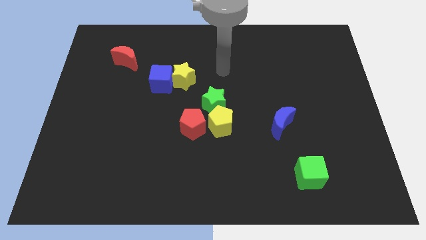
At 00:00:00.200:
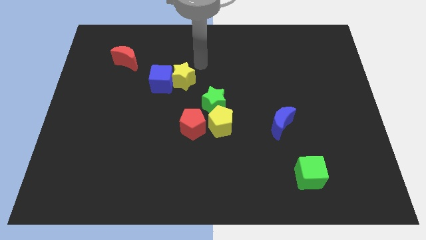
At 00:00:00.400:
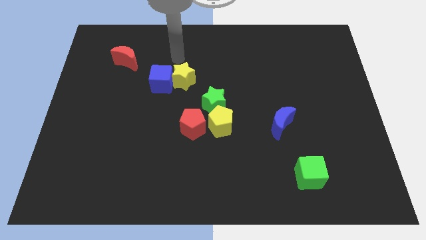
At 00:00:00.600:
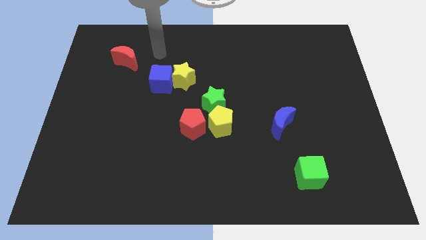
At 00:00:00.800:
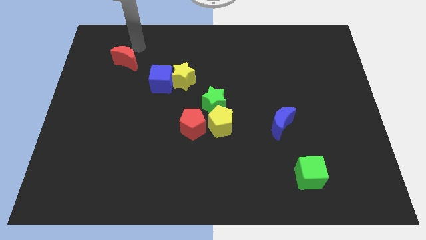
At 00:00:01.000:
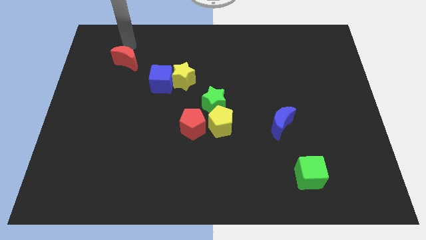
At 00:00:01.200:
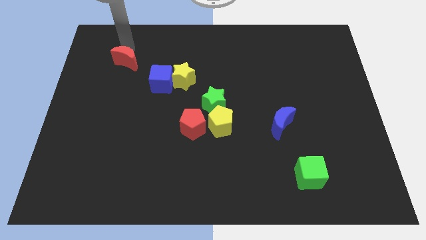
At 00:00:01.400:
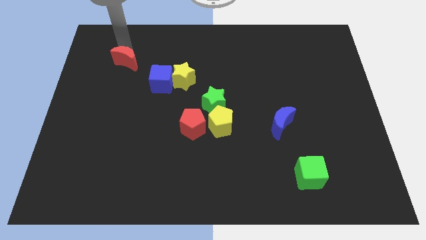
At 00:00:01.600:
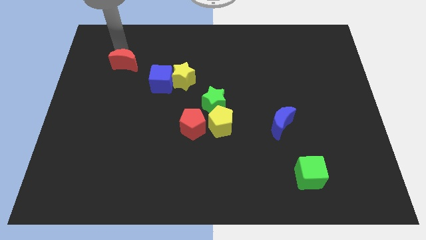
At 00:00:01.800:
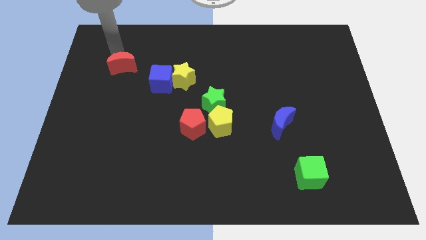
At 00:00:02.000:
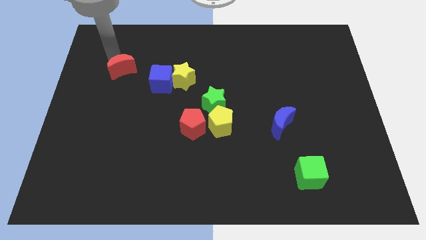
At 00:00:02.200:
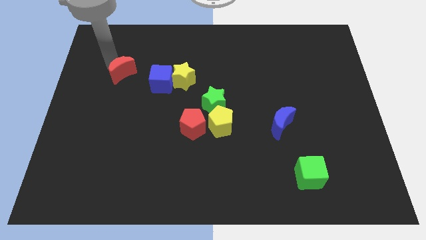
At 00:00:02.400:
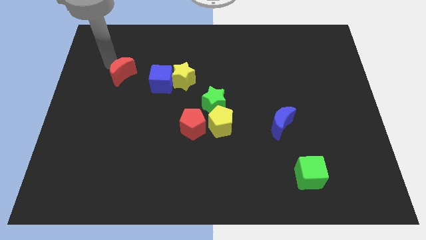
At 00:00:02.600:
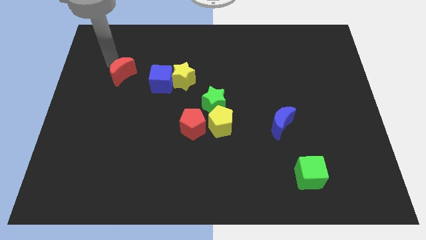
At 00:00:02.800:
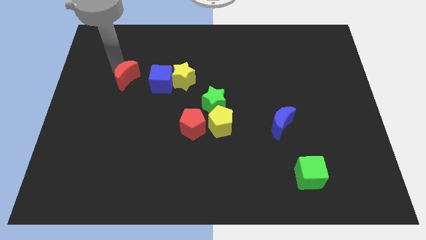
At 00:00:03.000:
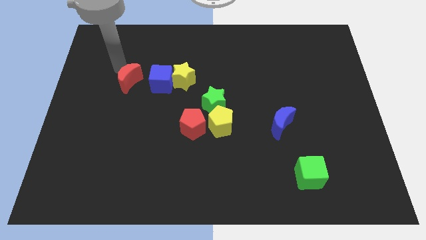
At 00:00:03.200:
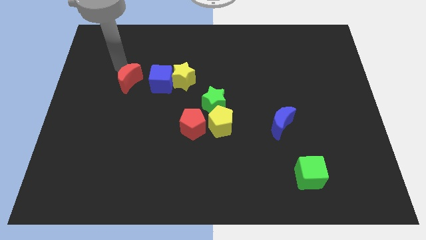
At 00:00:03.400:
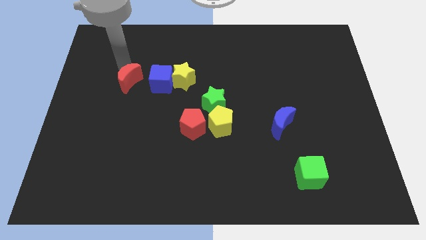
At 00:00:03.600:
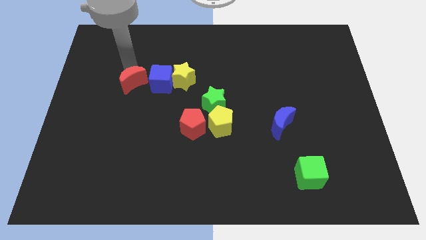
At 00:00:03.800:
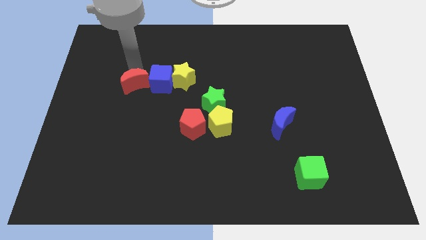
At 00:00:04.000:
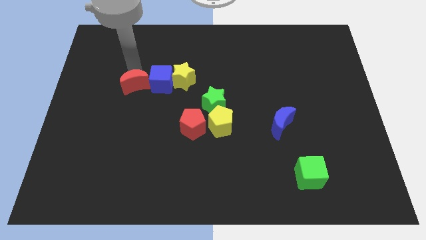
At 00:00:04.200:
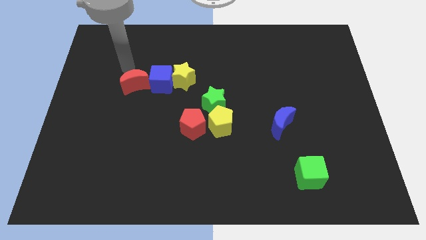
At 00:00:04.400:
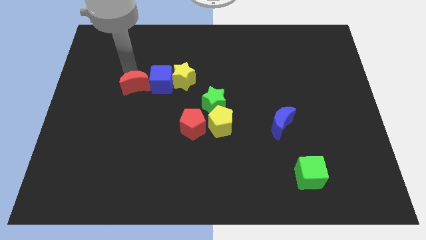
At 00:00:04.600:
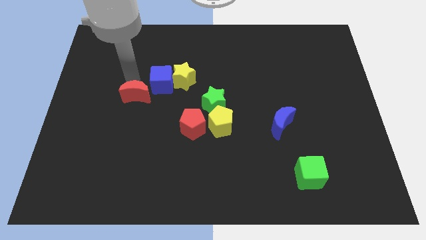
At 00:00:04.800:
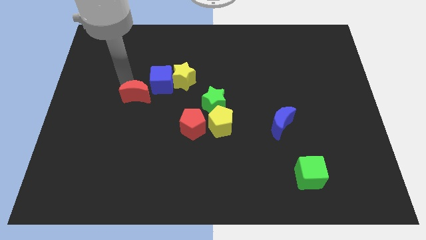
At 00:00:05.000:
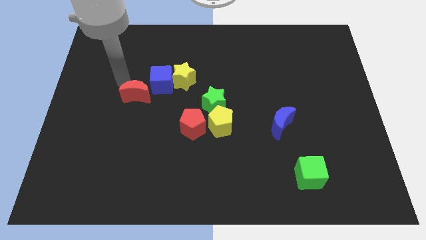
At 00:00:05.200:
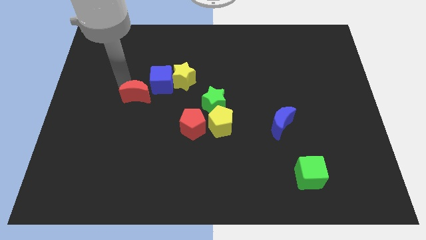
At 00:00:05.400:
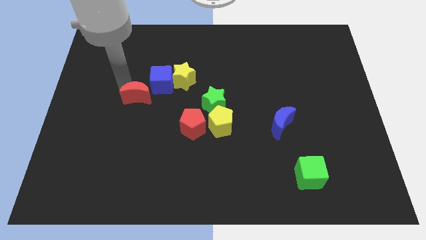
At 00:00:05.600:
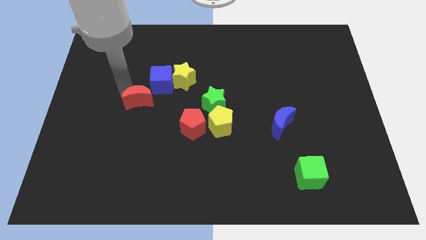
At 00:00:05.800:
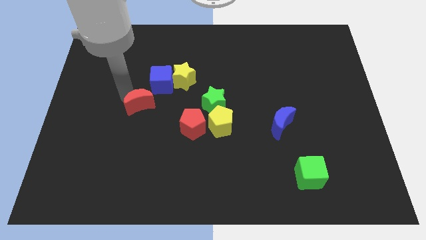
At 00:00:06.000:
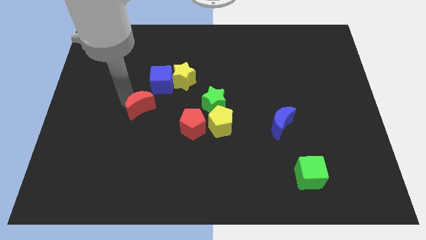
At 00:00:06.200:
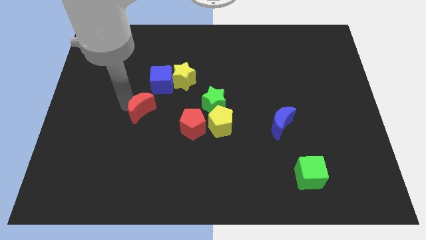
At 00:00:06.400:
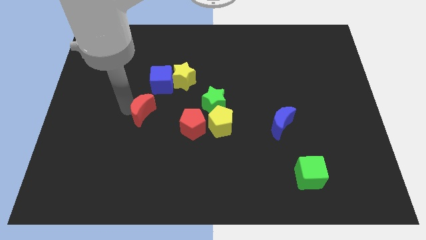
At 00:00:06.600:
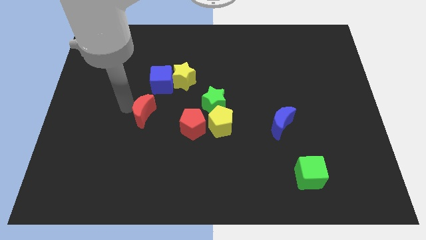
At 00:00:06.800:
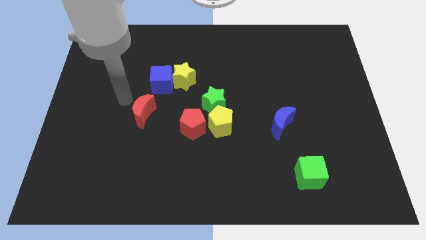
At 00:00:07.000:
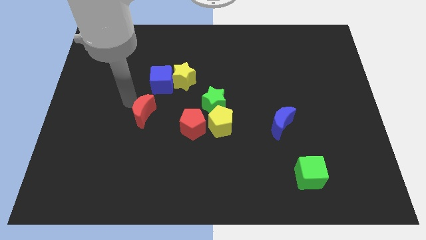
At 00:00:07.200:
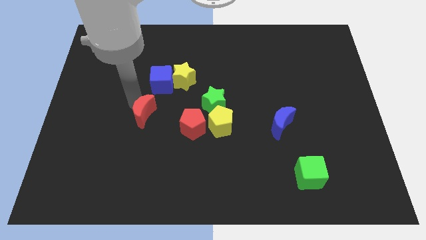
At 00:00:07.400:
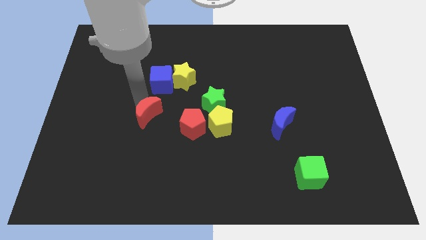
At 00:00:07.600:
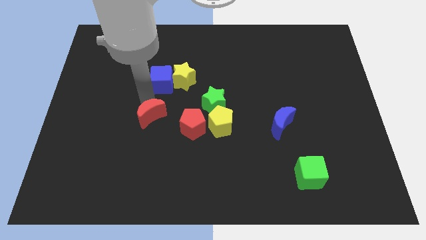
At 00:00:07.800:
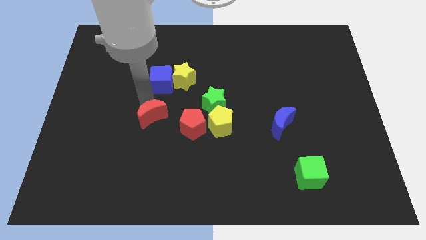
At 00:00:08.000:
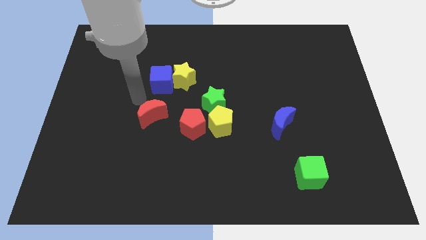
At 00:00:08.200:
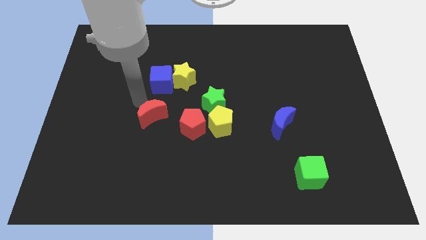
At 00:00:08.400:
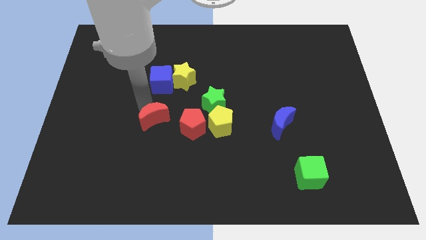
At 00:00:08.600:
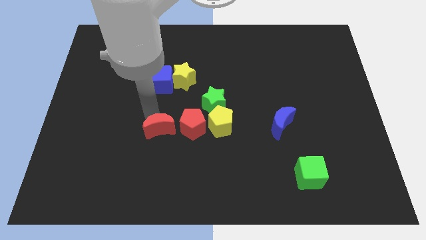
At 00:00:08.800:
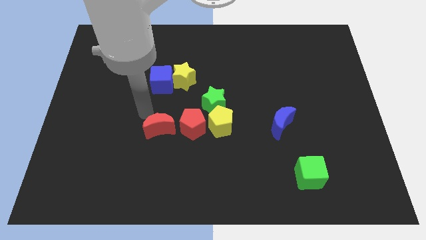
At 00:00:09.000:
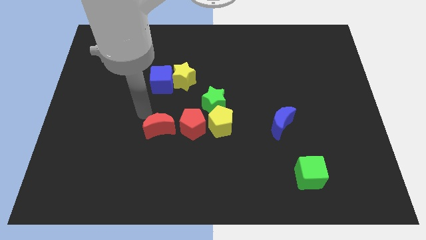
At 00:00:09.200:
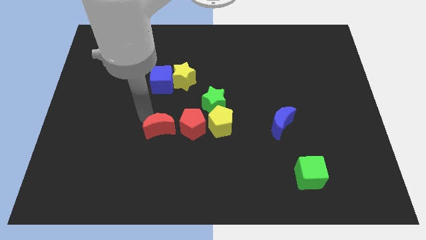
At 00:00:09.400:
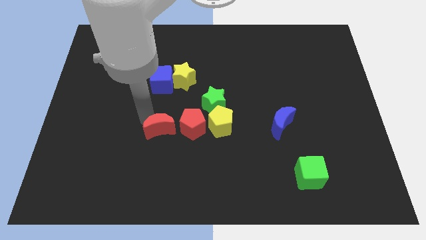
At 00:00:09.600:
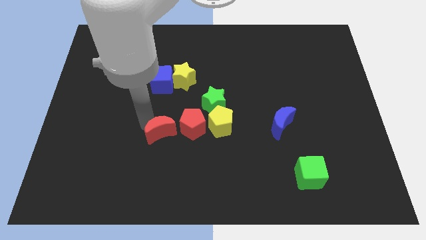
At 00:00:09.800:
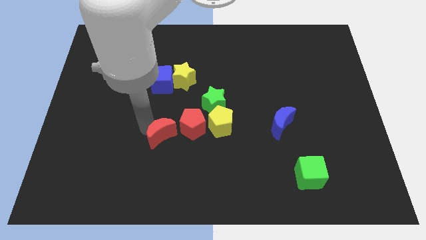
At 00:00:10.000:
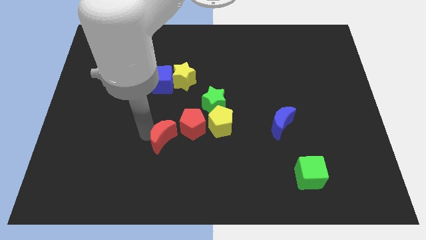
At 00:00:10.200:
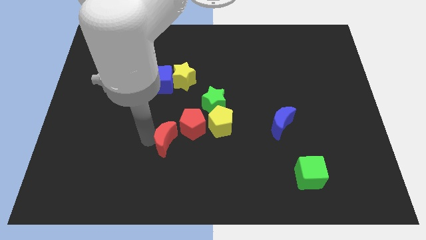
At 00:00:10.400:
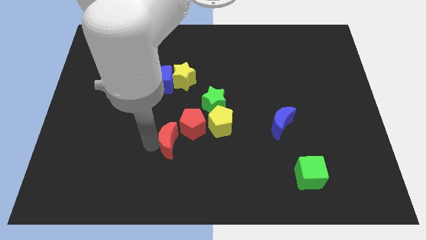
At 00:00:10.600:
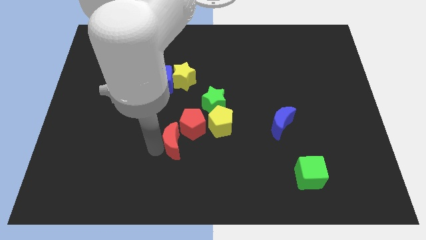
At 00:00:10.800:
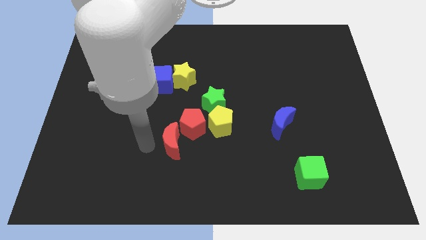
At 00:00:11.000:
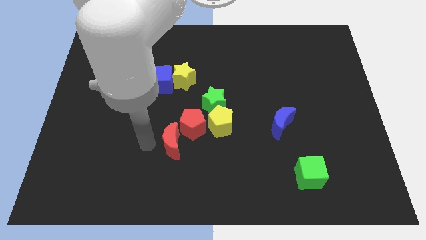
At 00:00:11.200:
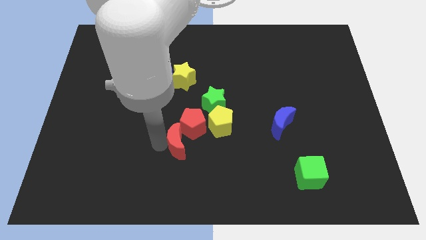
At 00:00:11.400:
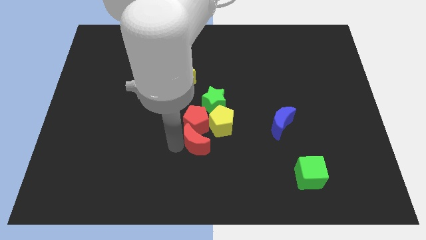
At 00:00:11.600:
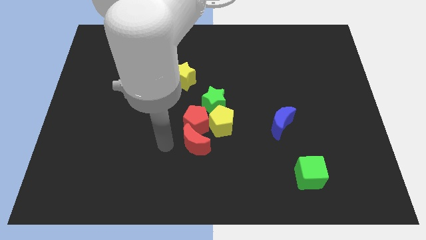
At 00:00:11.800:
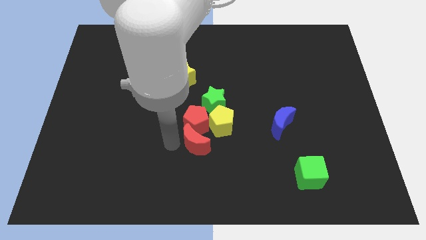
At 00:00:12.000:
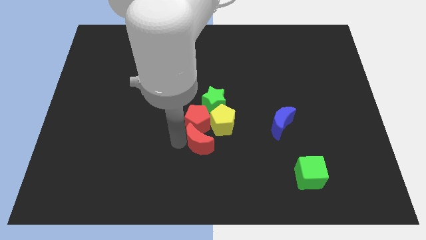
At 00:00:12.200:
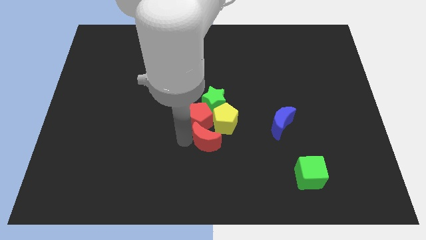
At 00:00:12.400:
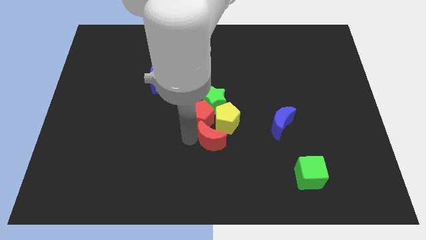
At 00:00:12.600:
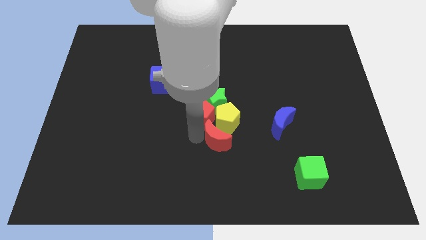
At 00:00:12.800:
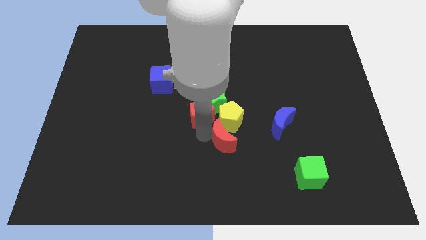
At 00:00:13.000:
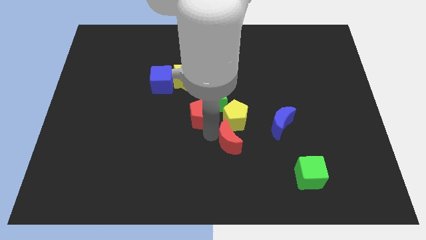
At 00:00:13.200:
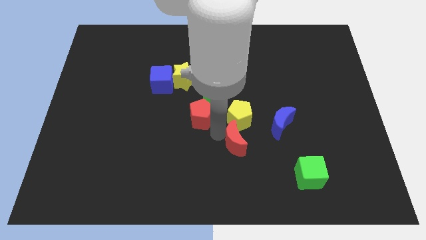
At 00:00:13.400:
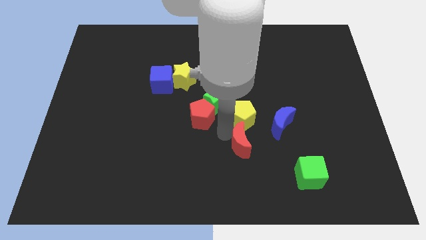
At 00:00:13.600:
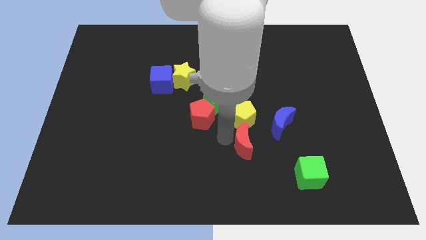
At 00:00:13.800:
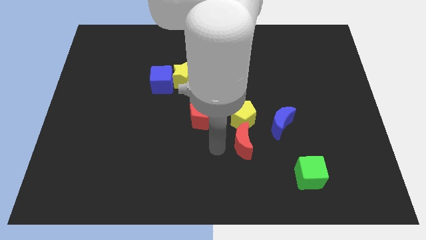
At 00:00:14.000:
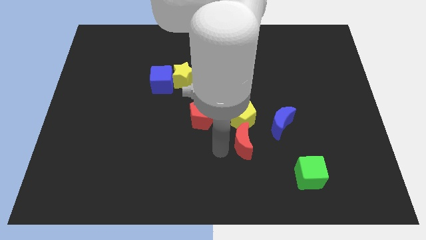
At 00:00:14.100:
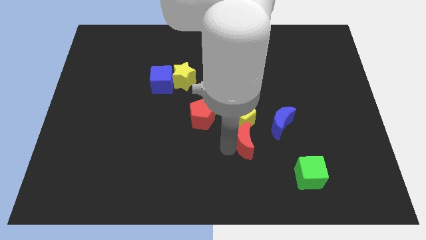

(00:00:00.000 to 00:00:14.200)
put the red moon to the bottom right of the yellow pentagon
